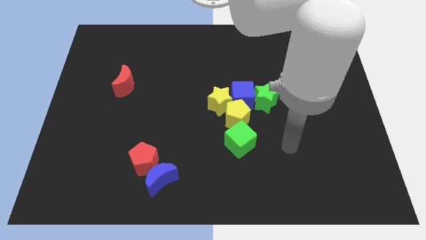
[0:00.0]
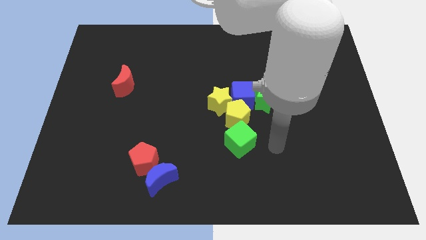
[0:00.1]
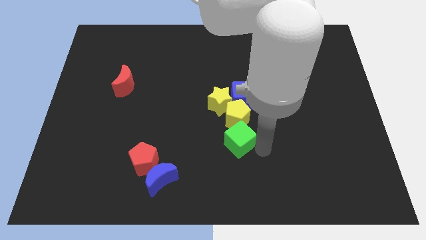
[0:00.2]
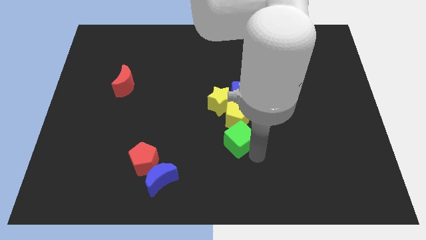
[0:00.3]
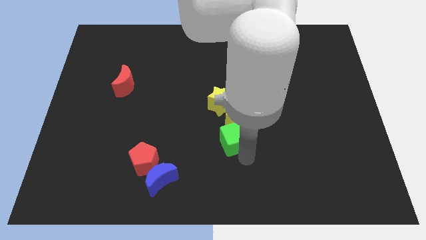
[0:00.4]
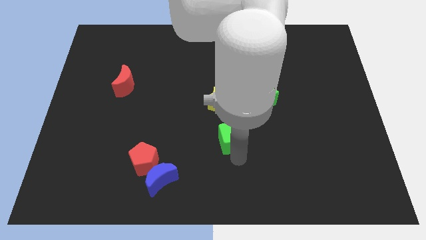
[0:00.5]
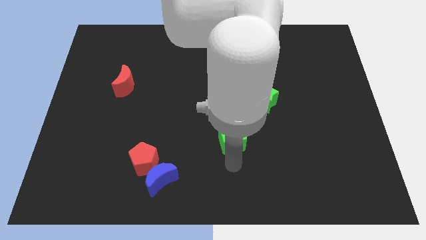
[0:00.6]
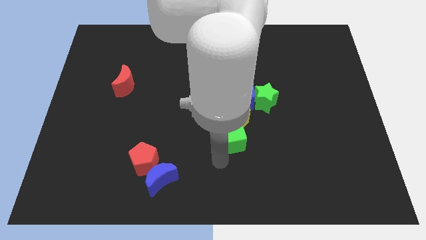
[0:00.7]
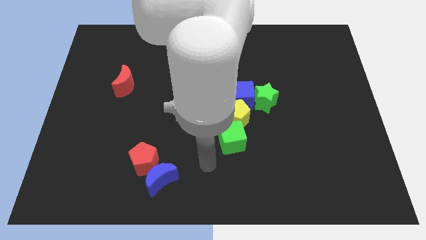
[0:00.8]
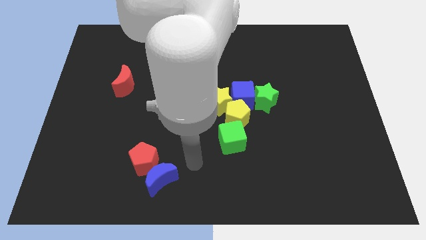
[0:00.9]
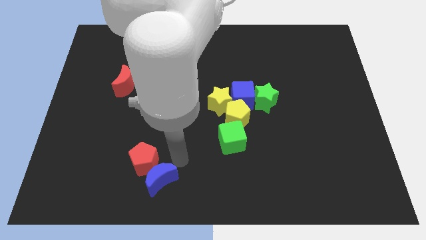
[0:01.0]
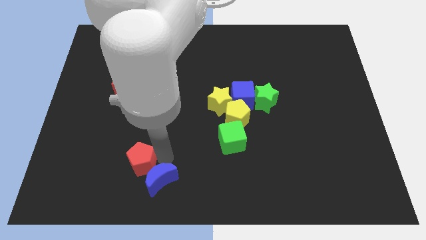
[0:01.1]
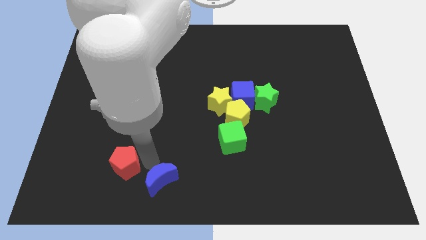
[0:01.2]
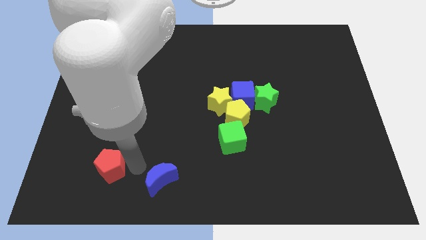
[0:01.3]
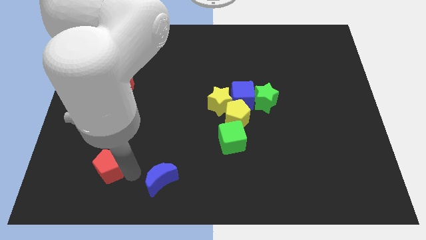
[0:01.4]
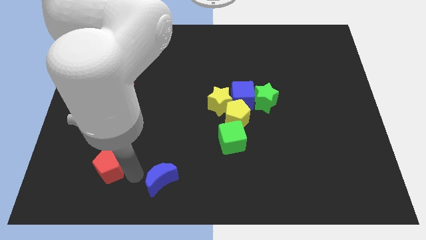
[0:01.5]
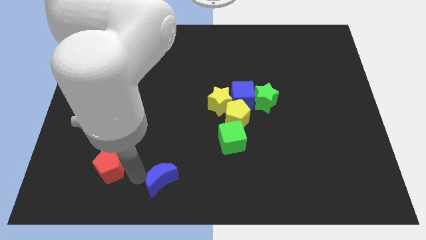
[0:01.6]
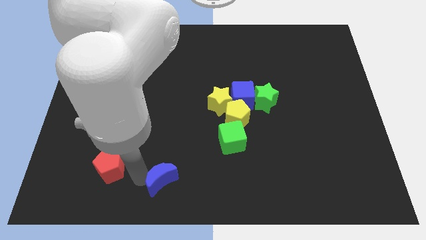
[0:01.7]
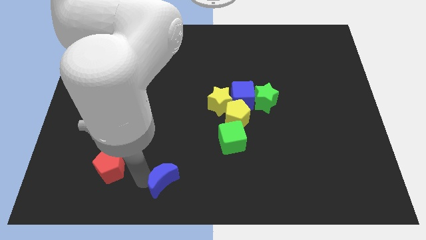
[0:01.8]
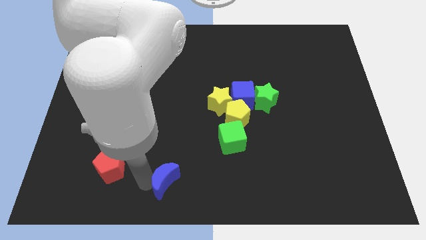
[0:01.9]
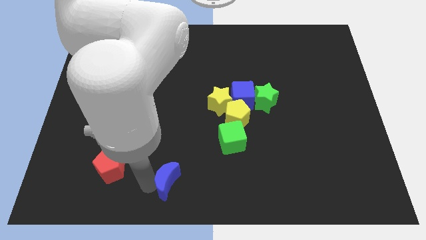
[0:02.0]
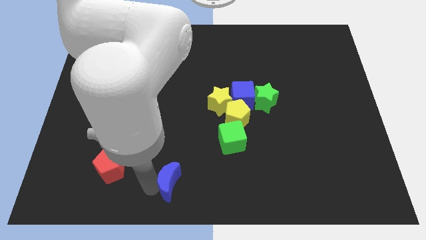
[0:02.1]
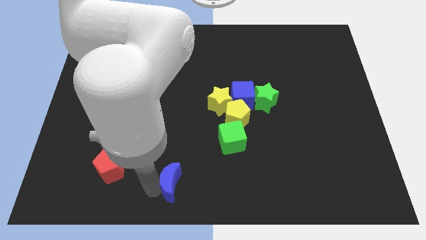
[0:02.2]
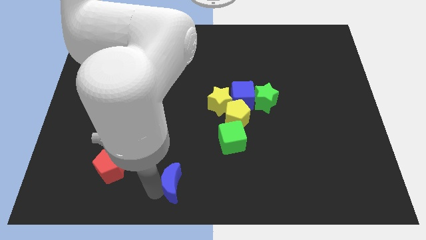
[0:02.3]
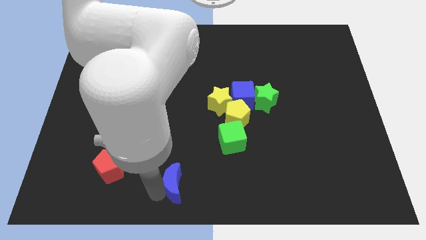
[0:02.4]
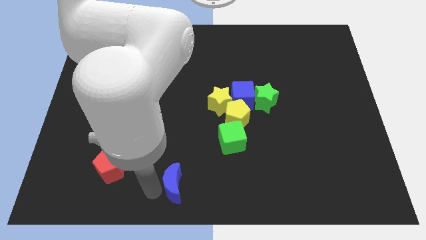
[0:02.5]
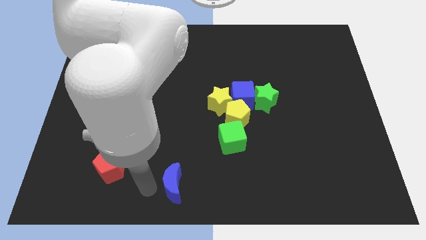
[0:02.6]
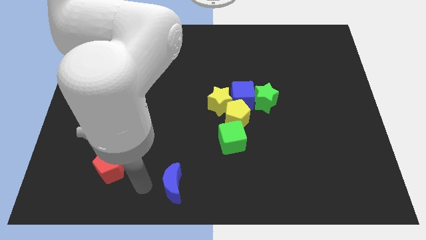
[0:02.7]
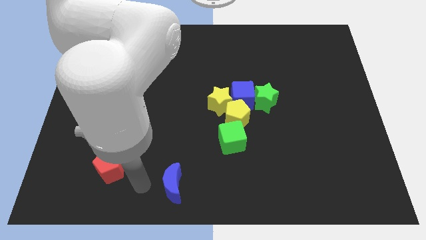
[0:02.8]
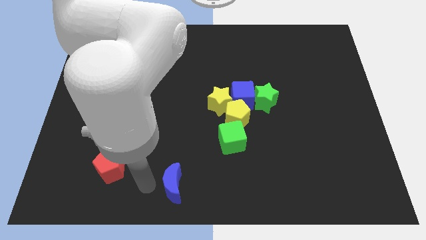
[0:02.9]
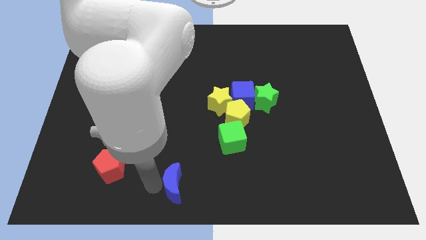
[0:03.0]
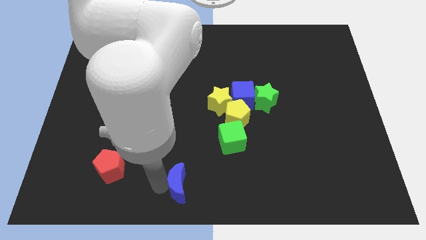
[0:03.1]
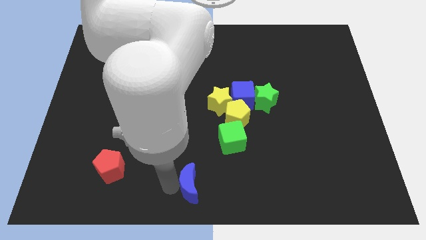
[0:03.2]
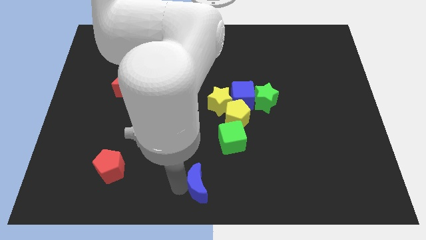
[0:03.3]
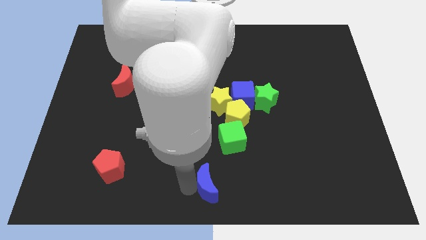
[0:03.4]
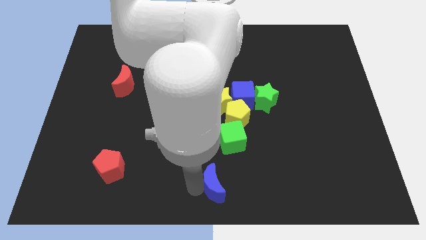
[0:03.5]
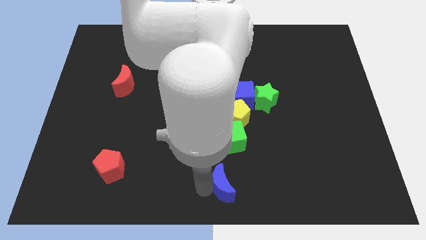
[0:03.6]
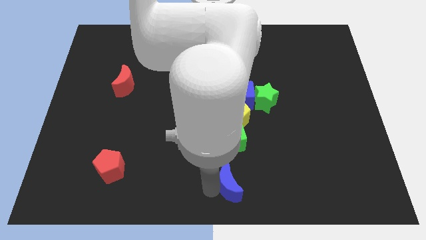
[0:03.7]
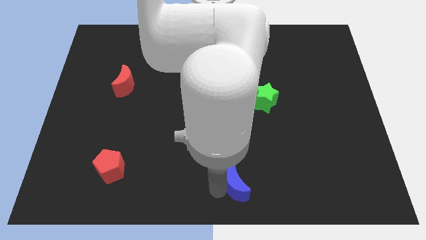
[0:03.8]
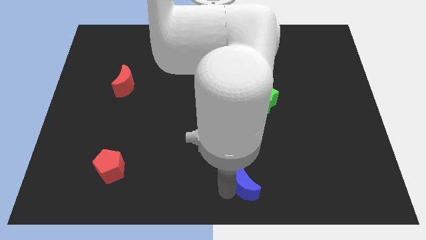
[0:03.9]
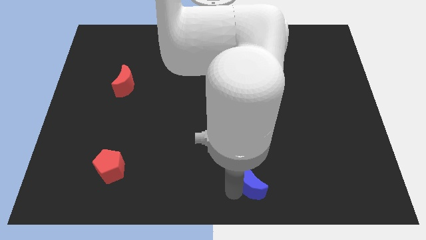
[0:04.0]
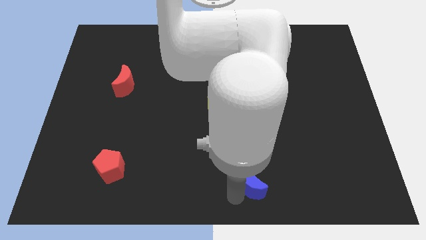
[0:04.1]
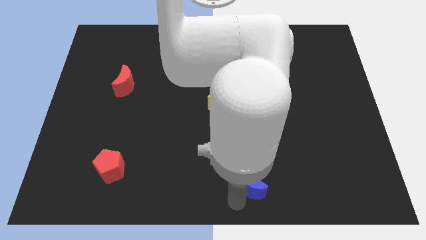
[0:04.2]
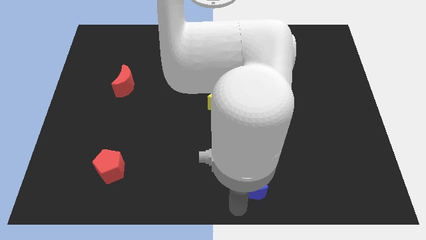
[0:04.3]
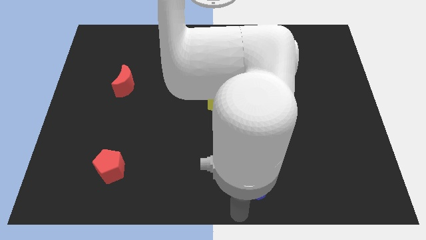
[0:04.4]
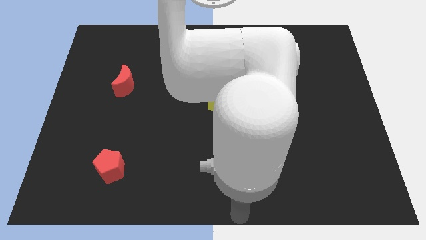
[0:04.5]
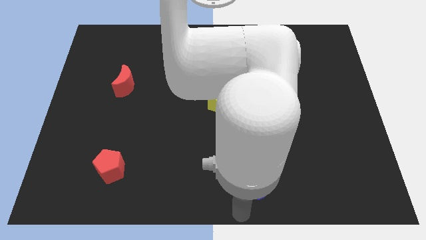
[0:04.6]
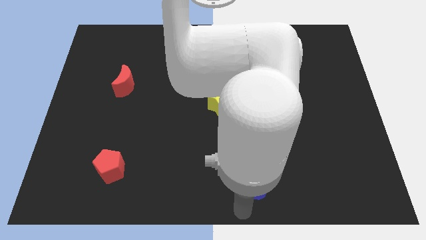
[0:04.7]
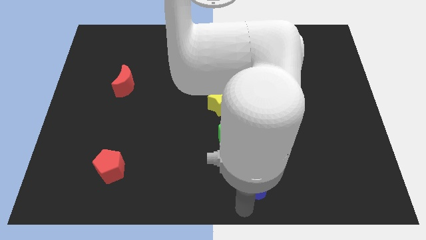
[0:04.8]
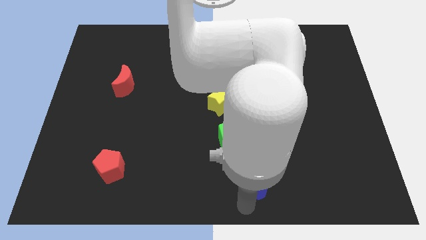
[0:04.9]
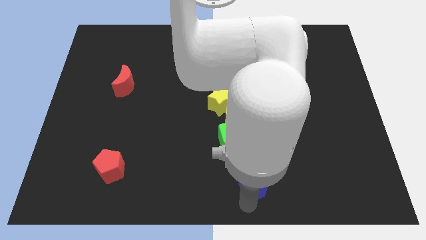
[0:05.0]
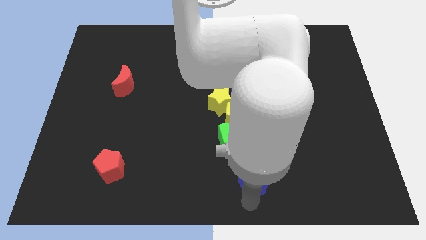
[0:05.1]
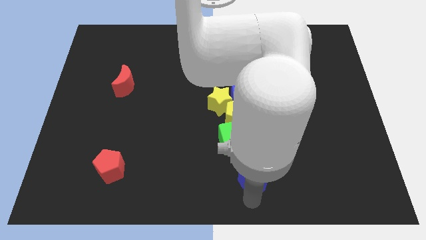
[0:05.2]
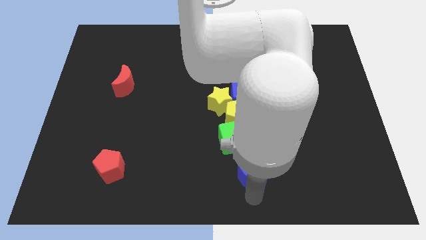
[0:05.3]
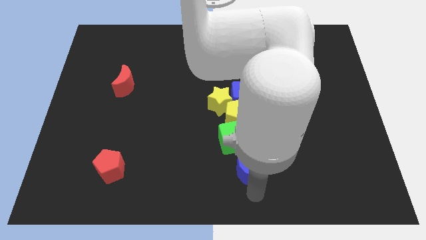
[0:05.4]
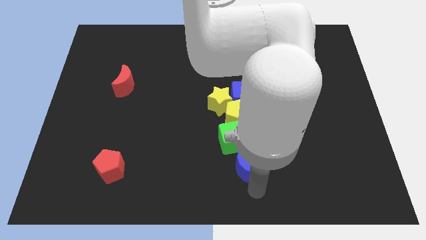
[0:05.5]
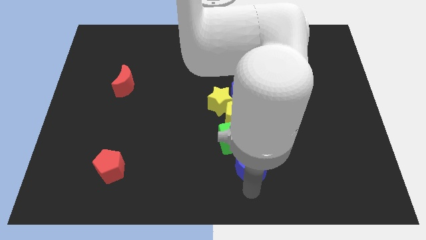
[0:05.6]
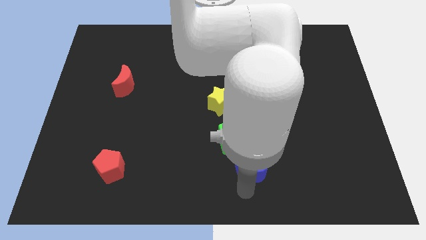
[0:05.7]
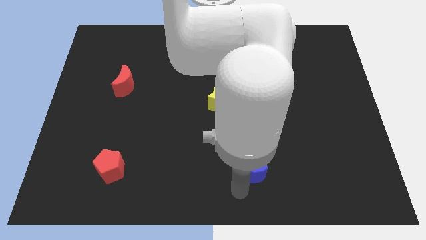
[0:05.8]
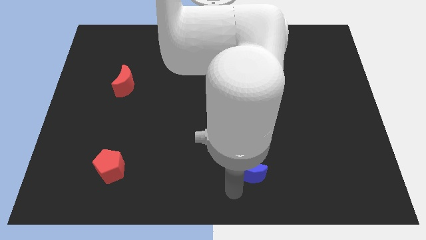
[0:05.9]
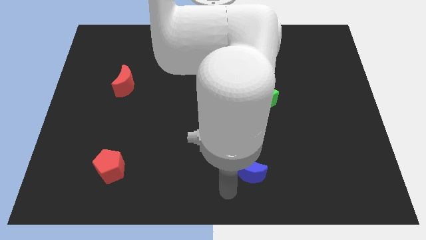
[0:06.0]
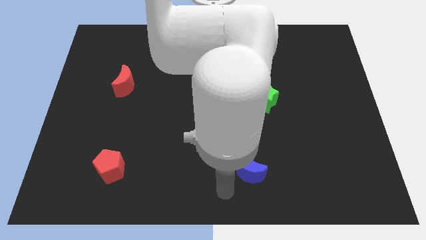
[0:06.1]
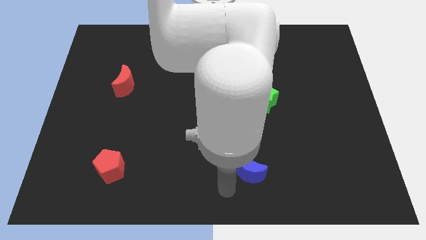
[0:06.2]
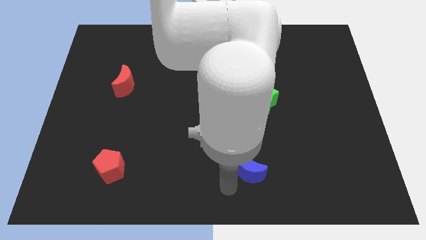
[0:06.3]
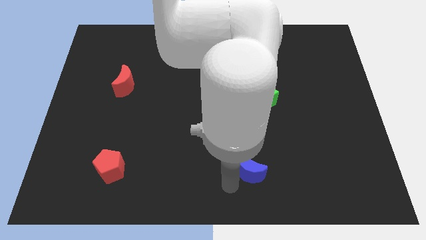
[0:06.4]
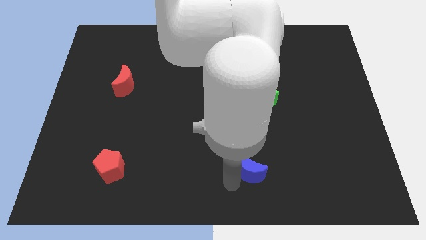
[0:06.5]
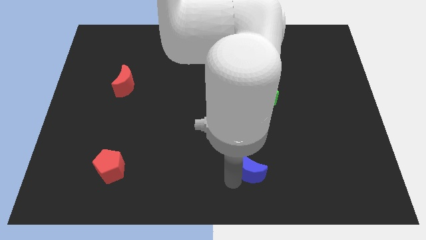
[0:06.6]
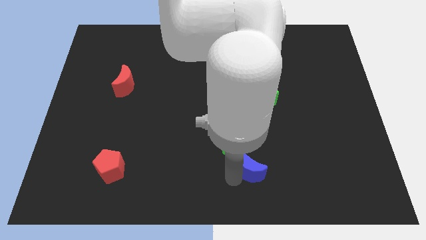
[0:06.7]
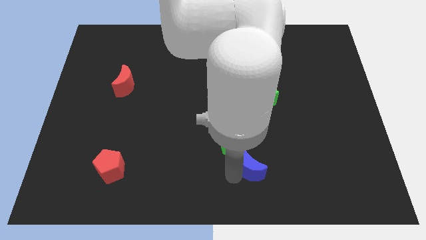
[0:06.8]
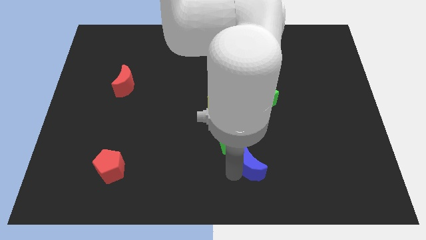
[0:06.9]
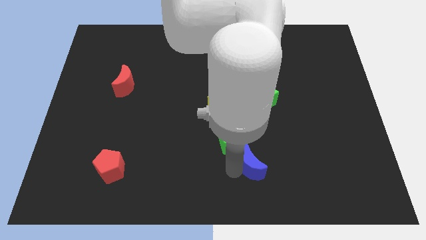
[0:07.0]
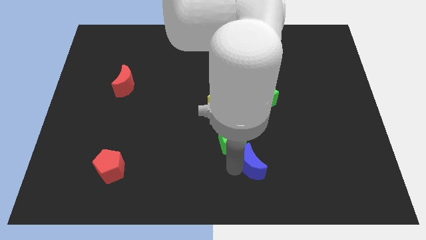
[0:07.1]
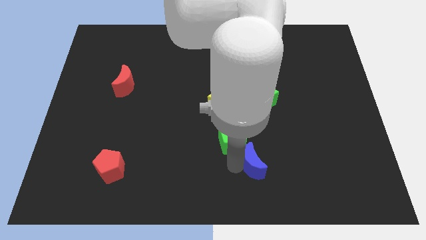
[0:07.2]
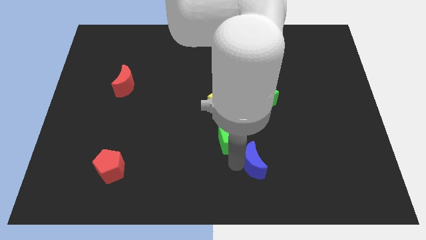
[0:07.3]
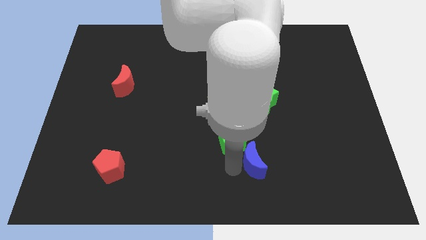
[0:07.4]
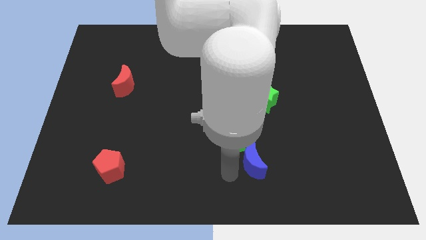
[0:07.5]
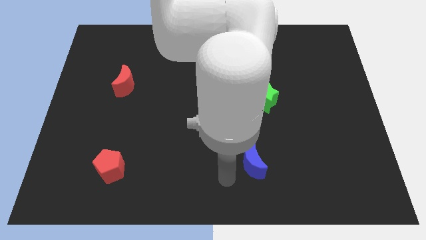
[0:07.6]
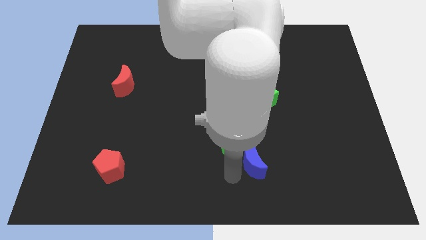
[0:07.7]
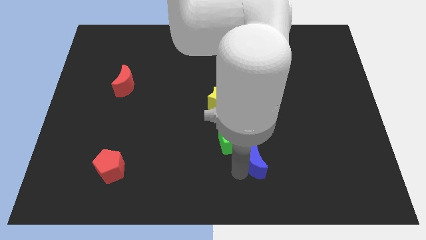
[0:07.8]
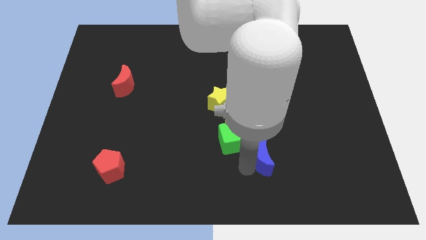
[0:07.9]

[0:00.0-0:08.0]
push the blue moon to the right of the green cube
